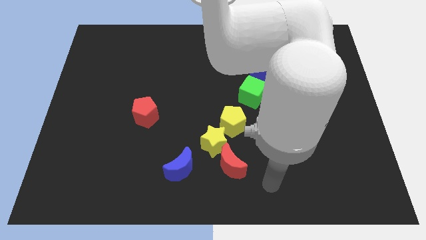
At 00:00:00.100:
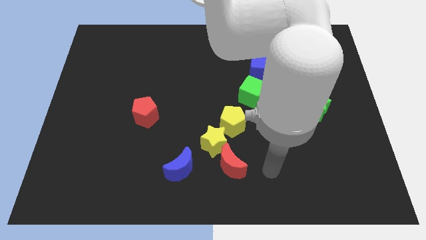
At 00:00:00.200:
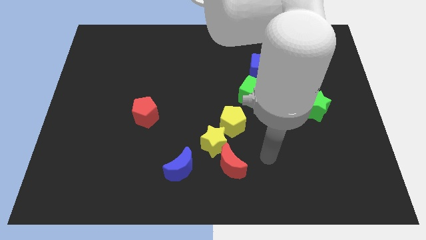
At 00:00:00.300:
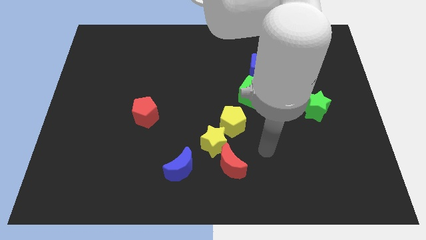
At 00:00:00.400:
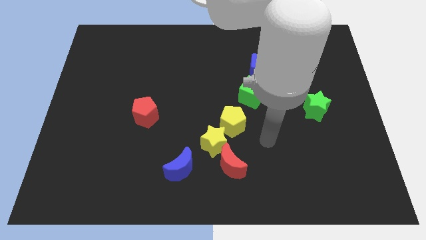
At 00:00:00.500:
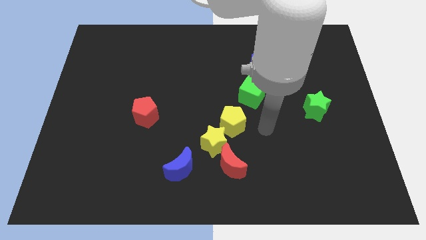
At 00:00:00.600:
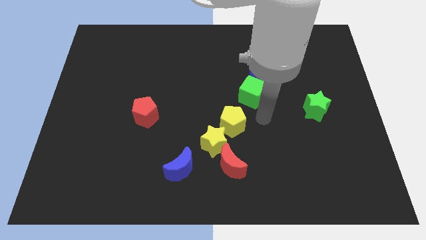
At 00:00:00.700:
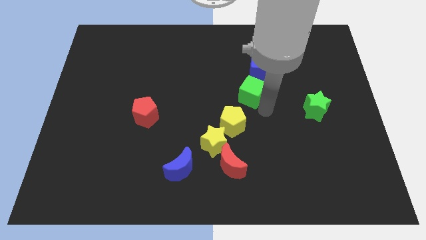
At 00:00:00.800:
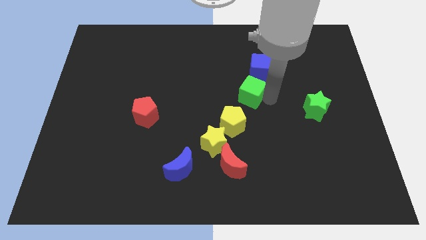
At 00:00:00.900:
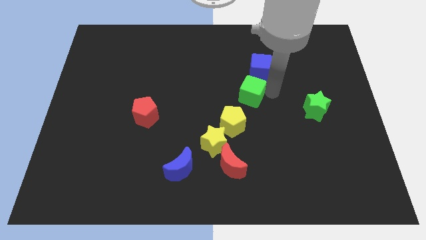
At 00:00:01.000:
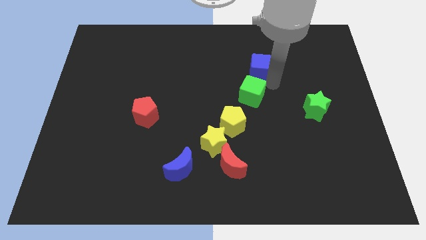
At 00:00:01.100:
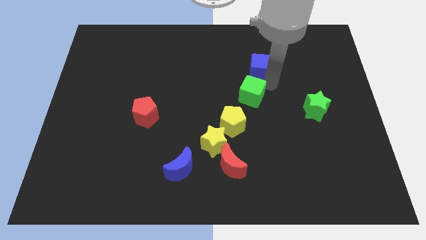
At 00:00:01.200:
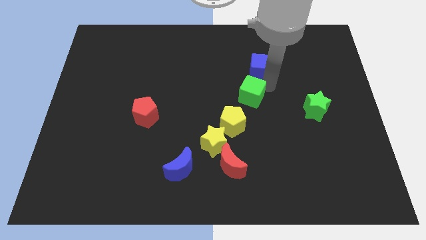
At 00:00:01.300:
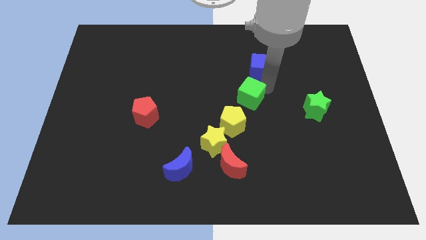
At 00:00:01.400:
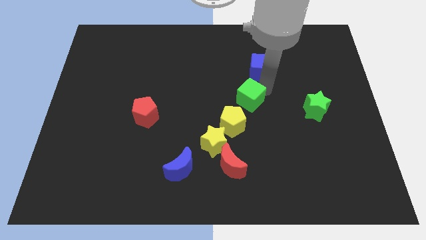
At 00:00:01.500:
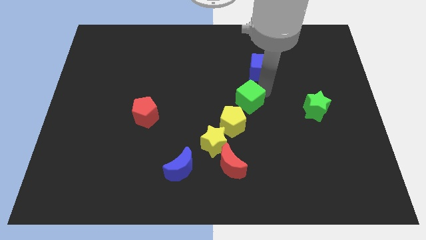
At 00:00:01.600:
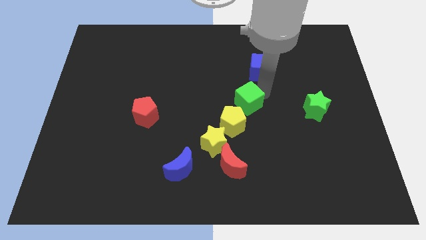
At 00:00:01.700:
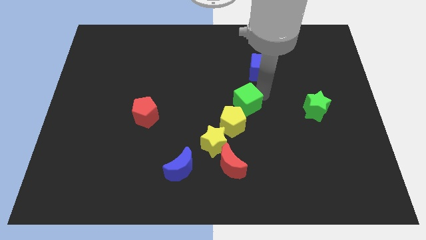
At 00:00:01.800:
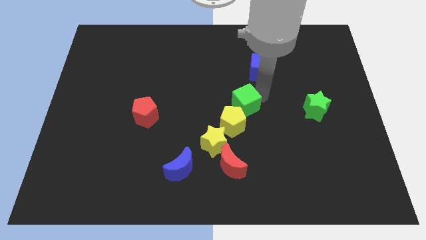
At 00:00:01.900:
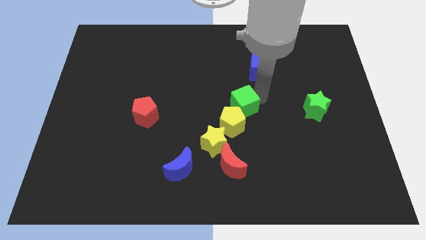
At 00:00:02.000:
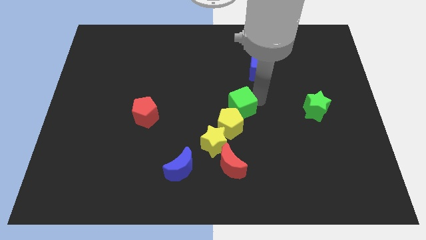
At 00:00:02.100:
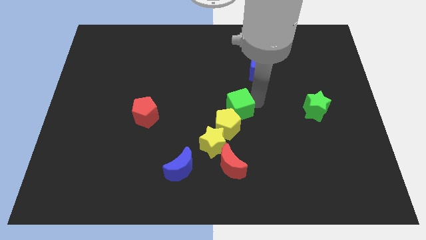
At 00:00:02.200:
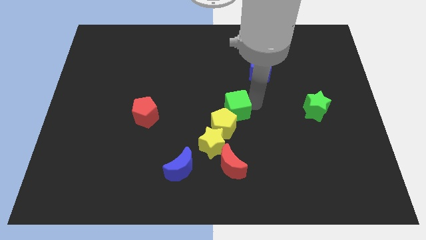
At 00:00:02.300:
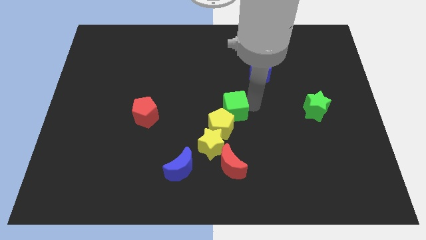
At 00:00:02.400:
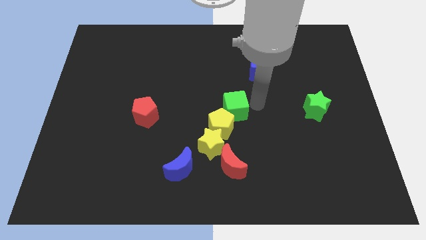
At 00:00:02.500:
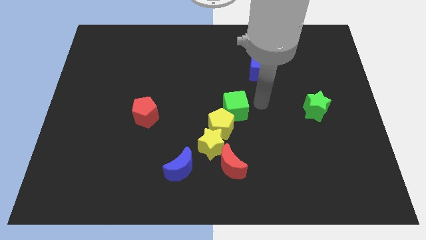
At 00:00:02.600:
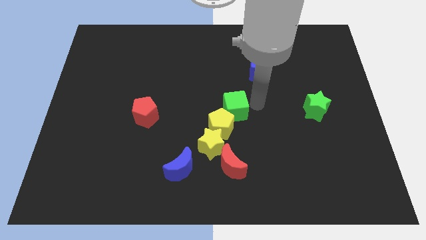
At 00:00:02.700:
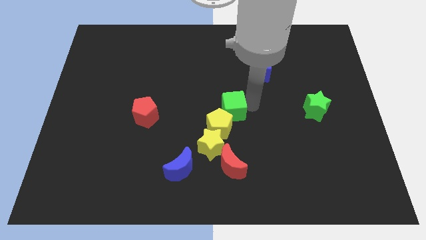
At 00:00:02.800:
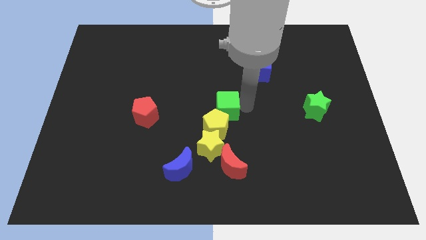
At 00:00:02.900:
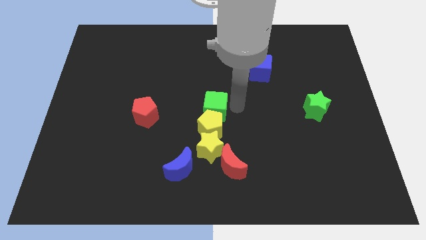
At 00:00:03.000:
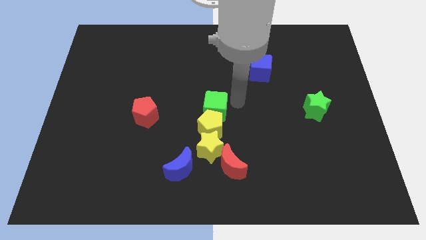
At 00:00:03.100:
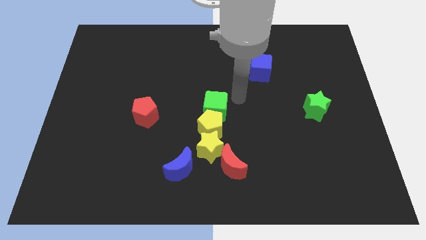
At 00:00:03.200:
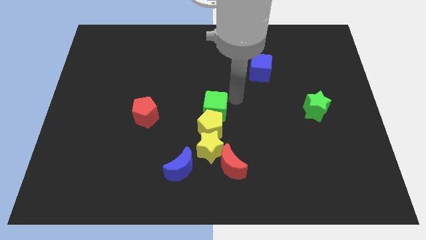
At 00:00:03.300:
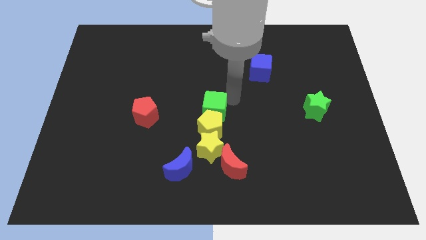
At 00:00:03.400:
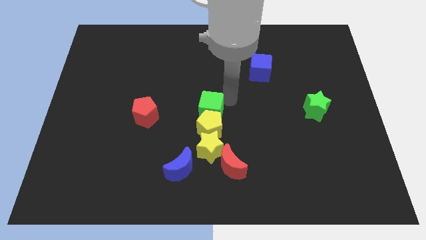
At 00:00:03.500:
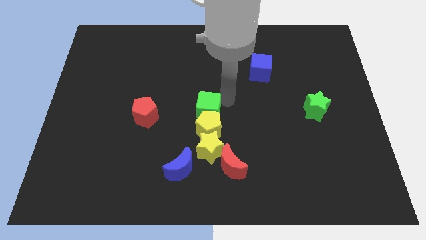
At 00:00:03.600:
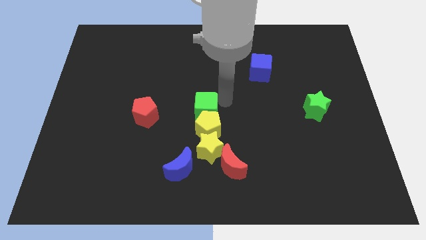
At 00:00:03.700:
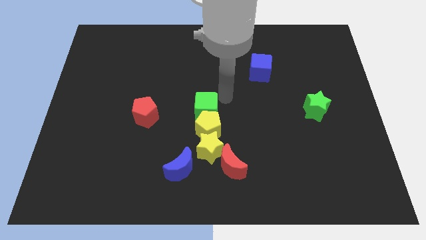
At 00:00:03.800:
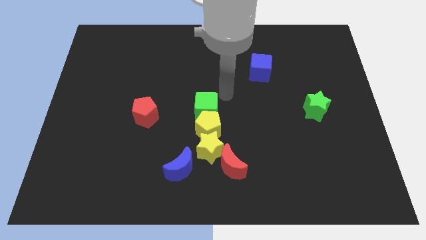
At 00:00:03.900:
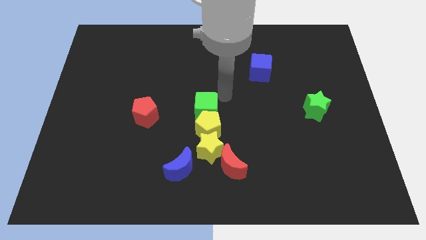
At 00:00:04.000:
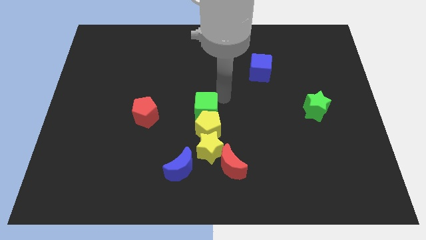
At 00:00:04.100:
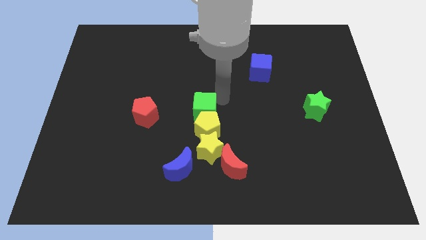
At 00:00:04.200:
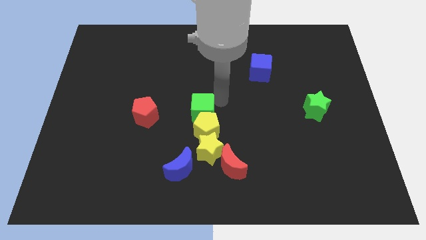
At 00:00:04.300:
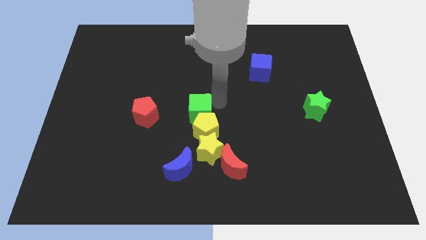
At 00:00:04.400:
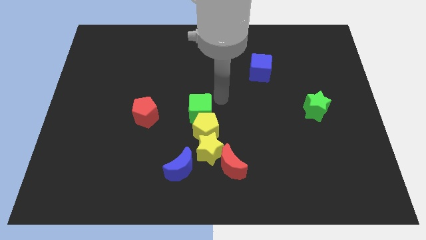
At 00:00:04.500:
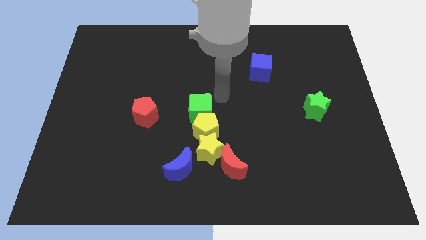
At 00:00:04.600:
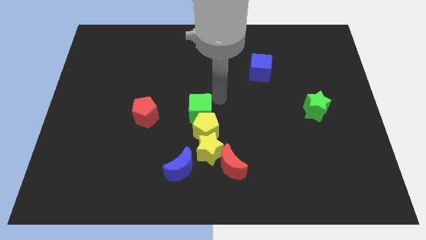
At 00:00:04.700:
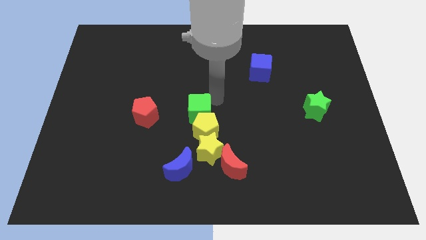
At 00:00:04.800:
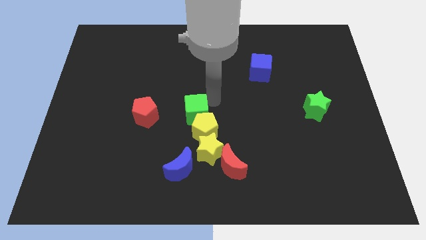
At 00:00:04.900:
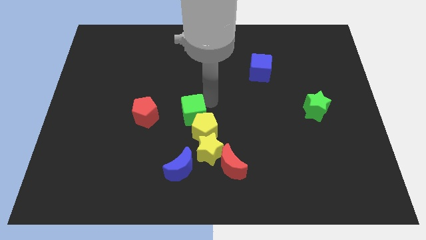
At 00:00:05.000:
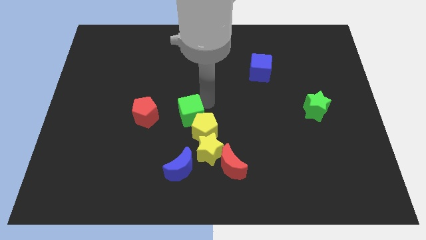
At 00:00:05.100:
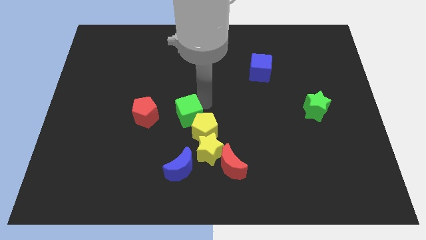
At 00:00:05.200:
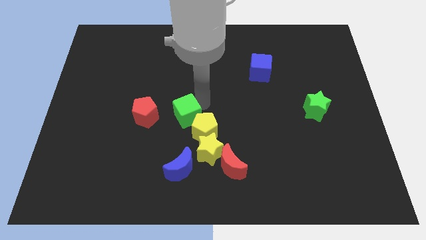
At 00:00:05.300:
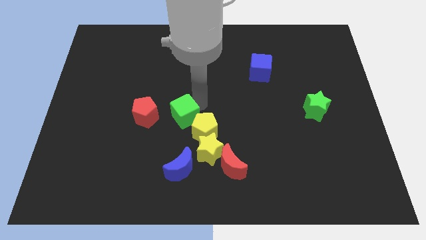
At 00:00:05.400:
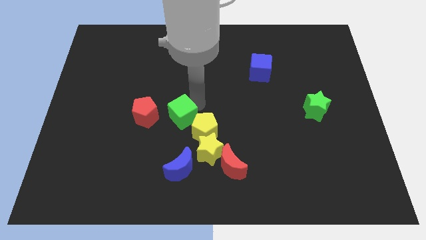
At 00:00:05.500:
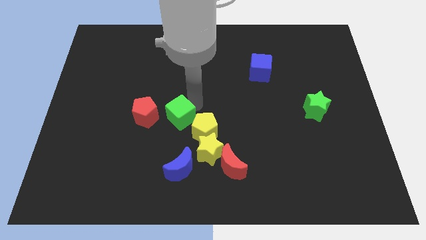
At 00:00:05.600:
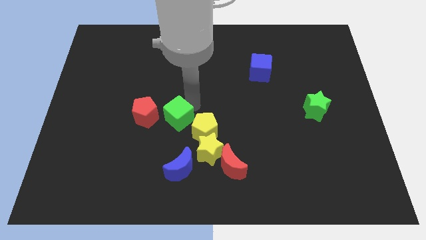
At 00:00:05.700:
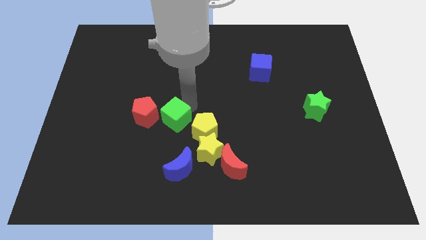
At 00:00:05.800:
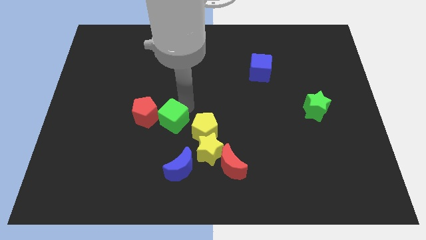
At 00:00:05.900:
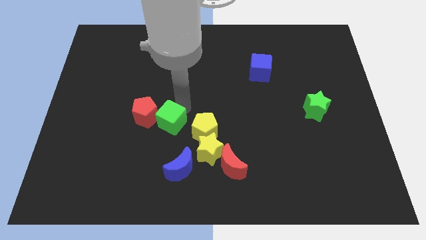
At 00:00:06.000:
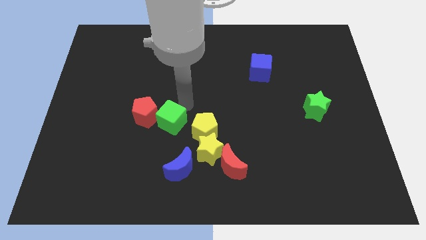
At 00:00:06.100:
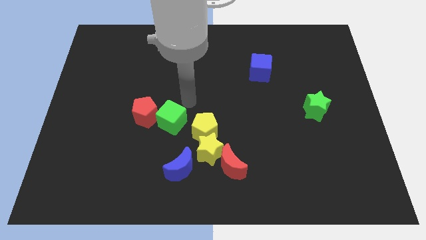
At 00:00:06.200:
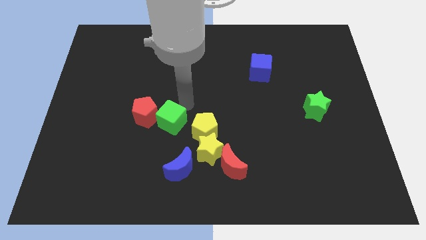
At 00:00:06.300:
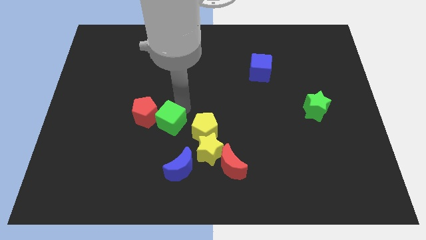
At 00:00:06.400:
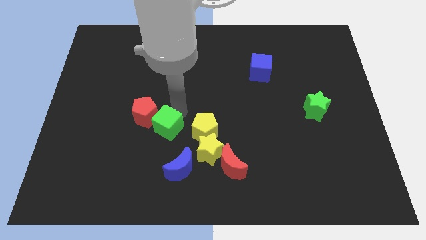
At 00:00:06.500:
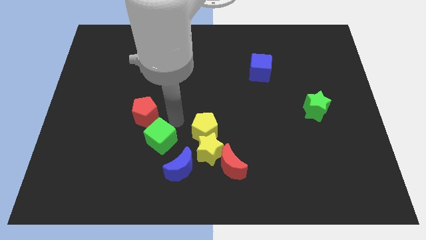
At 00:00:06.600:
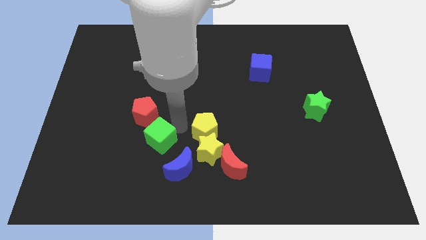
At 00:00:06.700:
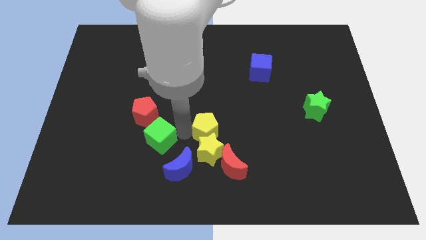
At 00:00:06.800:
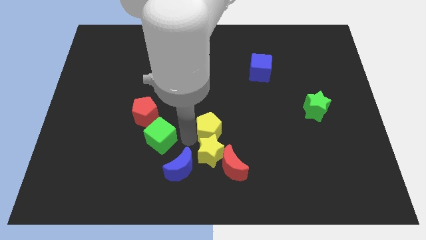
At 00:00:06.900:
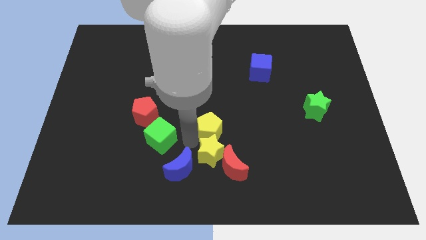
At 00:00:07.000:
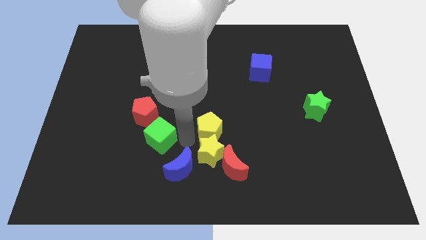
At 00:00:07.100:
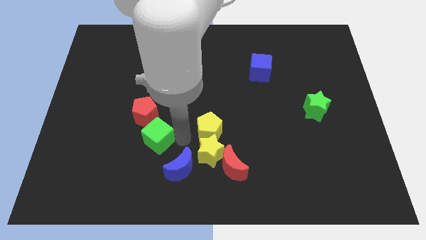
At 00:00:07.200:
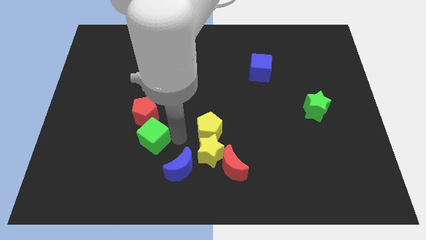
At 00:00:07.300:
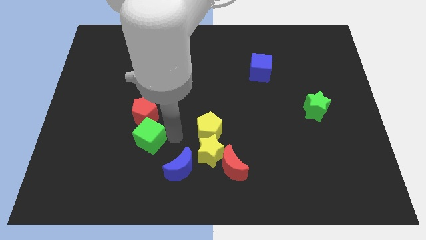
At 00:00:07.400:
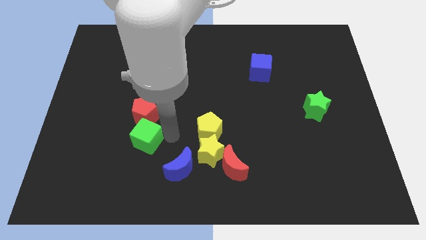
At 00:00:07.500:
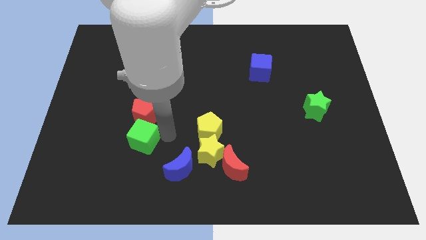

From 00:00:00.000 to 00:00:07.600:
push the green cube to the bottom left of the red pentagon
